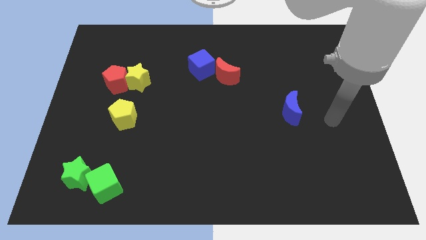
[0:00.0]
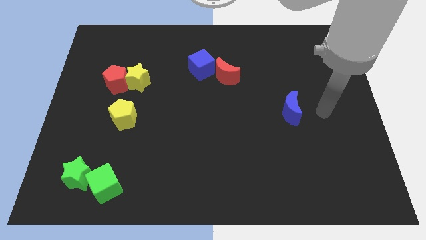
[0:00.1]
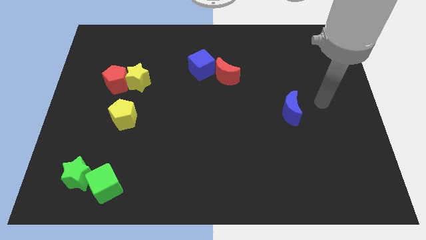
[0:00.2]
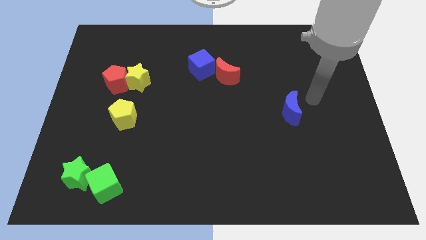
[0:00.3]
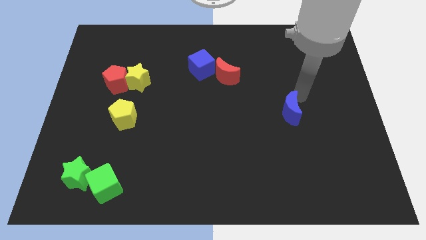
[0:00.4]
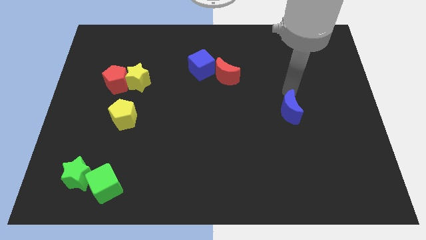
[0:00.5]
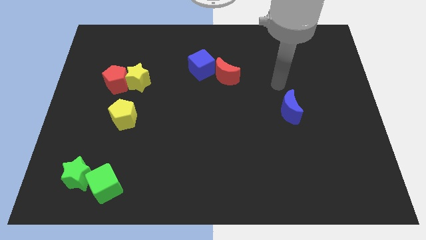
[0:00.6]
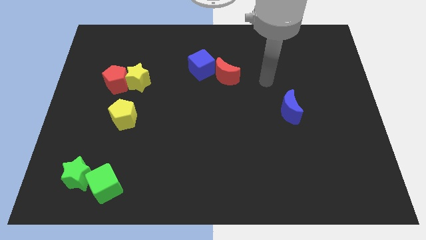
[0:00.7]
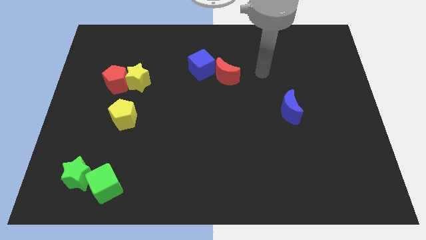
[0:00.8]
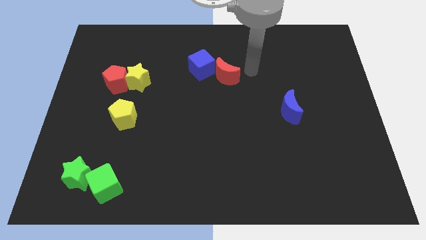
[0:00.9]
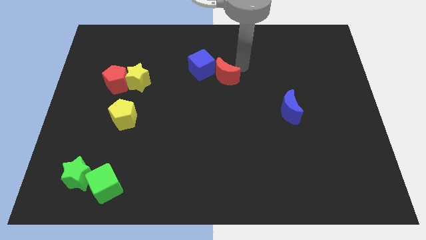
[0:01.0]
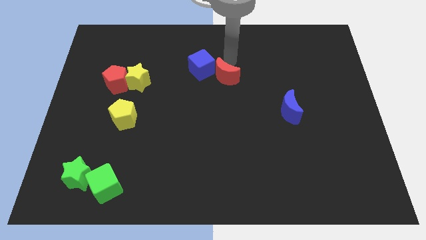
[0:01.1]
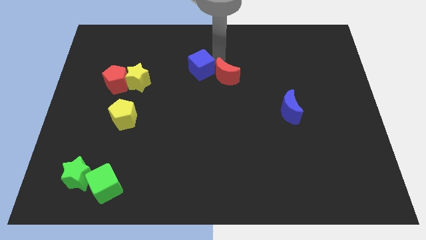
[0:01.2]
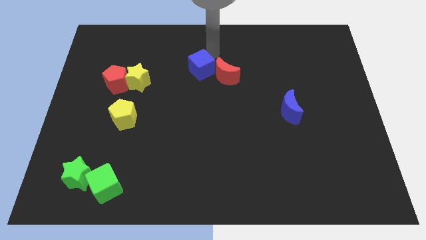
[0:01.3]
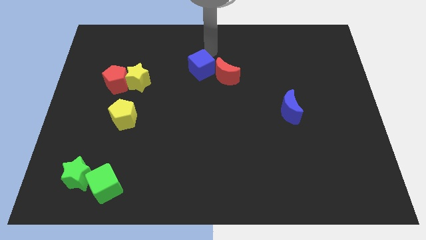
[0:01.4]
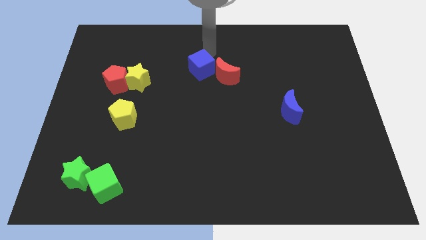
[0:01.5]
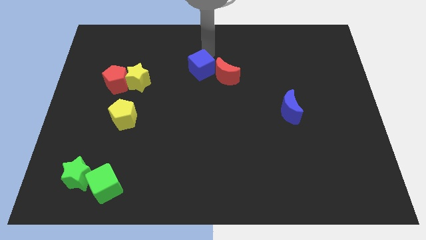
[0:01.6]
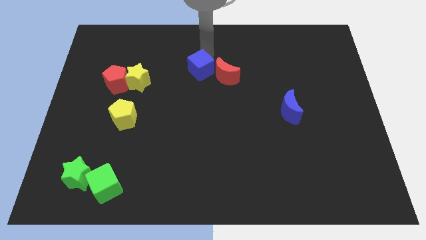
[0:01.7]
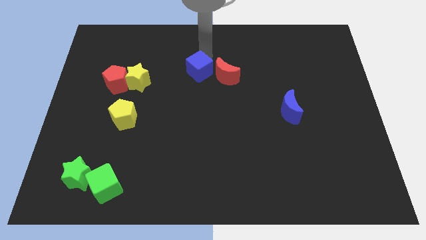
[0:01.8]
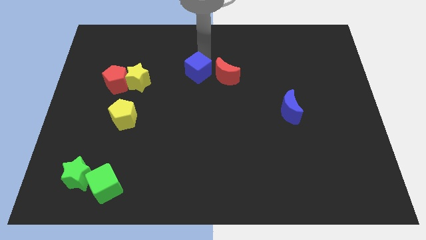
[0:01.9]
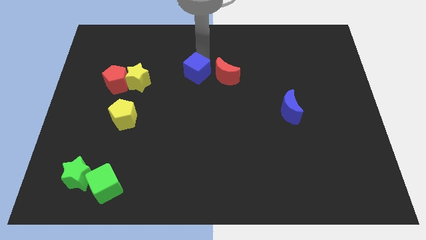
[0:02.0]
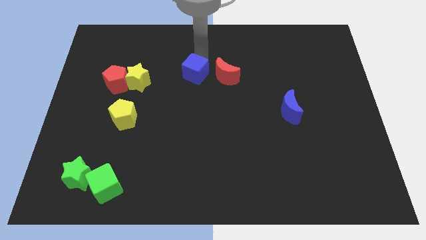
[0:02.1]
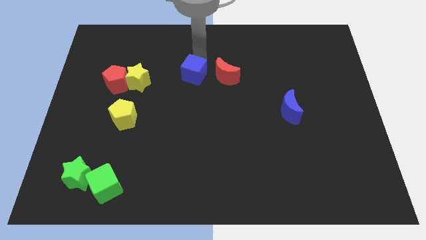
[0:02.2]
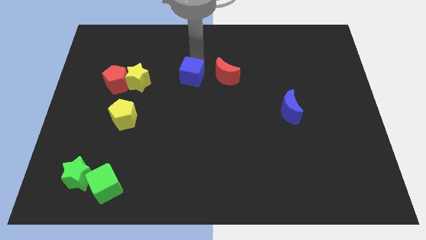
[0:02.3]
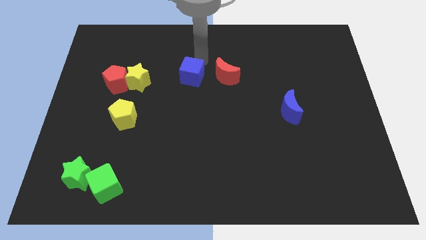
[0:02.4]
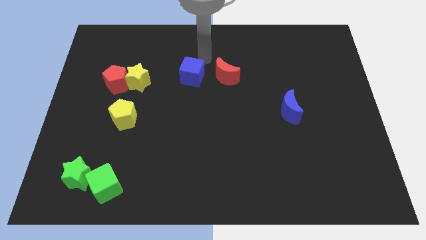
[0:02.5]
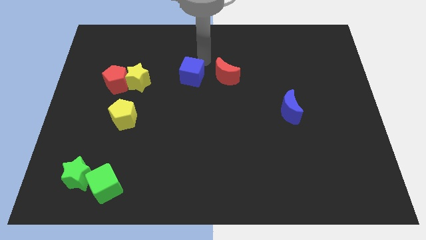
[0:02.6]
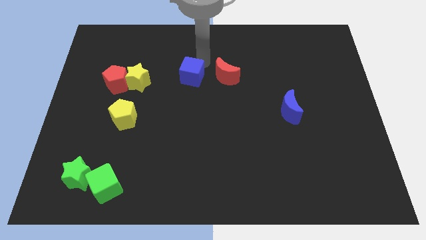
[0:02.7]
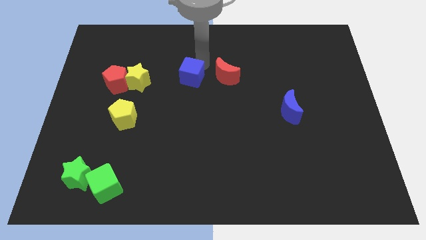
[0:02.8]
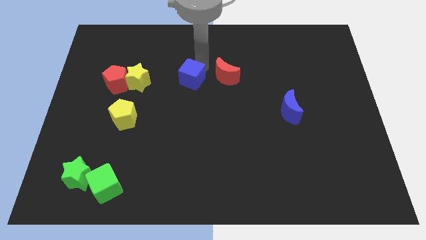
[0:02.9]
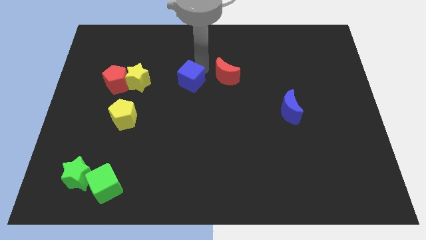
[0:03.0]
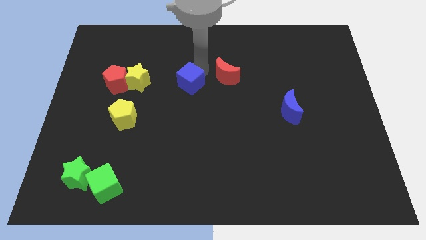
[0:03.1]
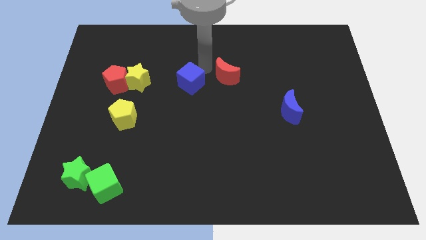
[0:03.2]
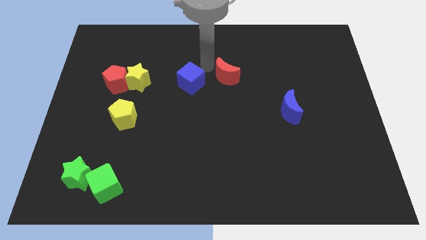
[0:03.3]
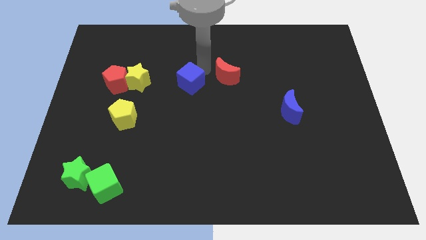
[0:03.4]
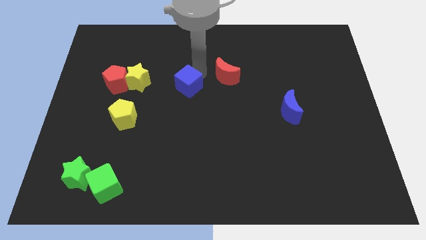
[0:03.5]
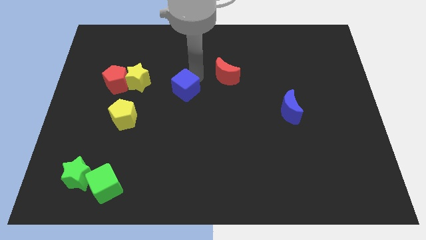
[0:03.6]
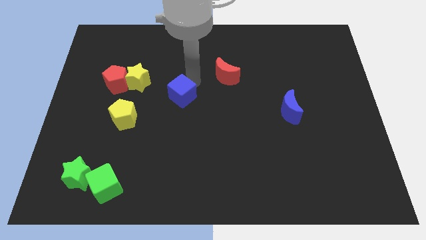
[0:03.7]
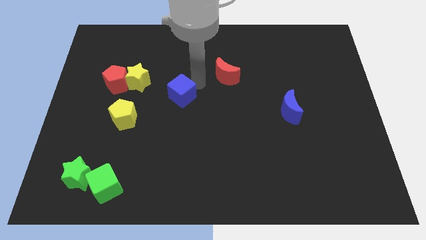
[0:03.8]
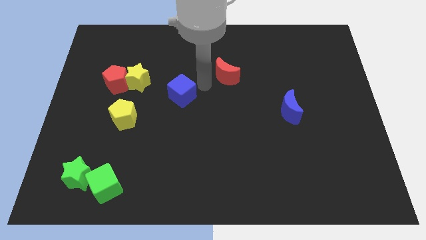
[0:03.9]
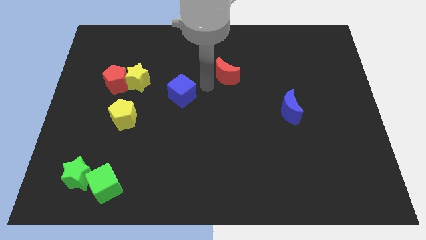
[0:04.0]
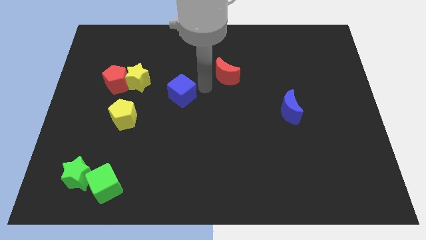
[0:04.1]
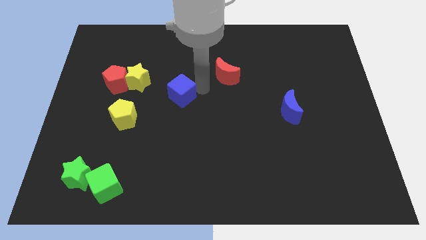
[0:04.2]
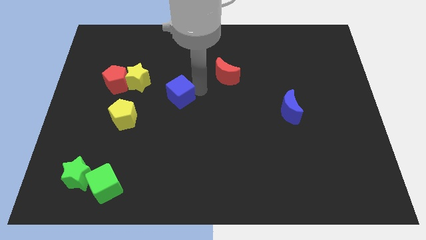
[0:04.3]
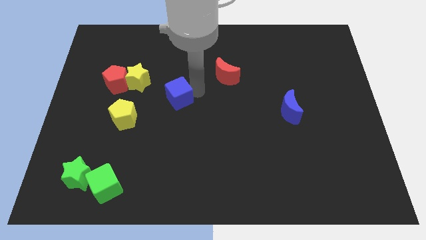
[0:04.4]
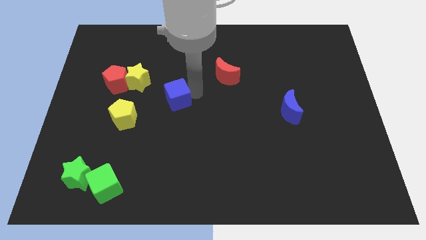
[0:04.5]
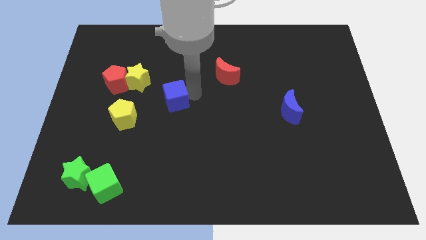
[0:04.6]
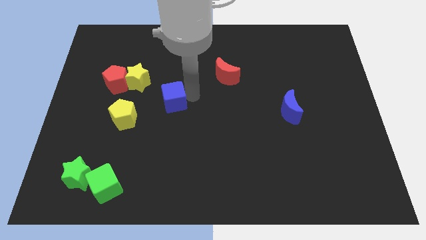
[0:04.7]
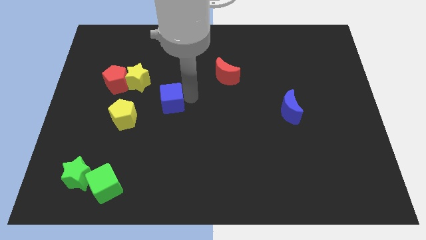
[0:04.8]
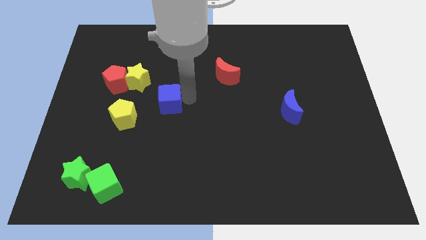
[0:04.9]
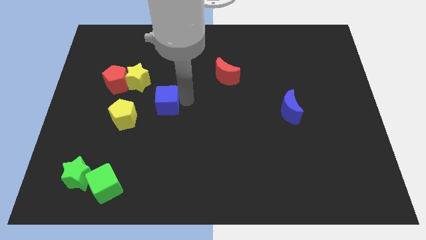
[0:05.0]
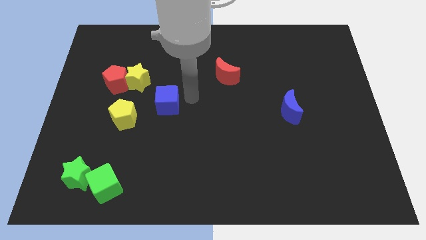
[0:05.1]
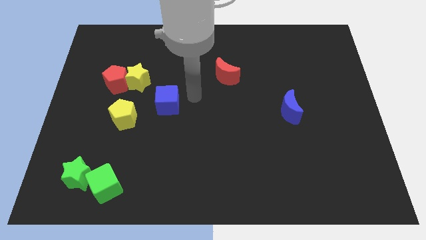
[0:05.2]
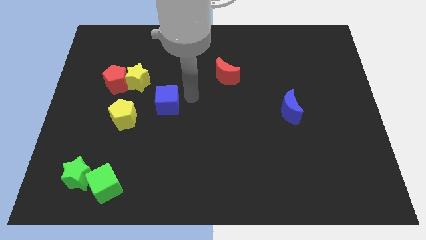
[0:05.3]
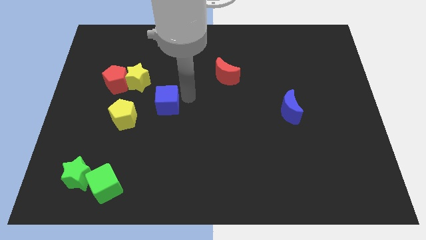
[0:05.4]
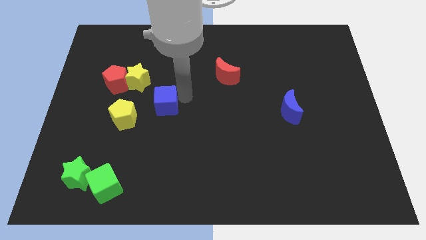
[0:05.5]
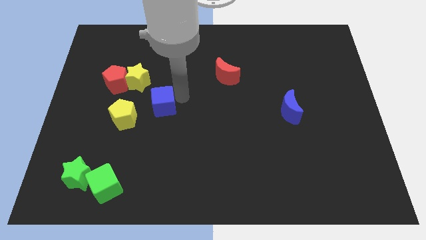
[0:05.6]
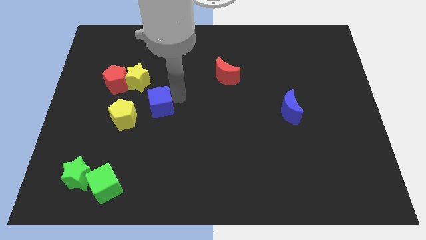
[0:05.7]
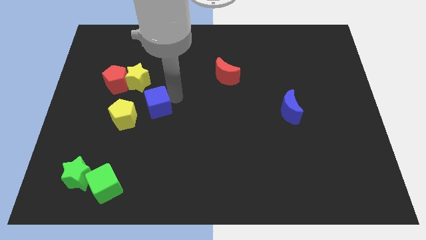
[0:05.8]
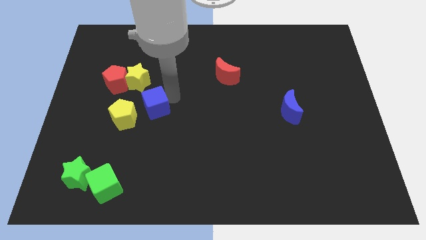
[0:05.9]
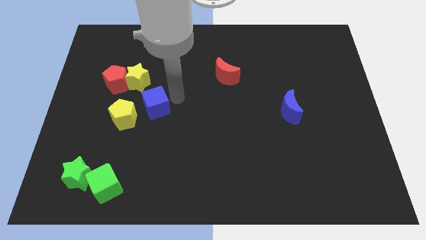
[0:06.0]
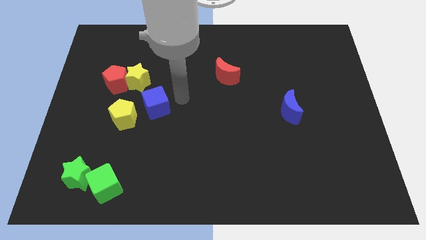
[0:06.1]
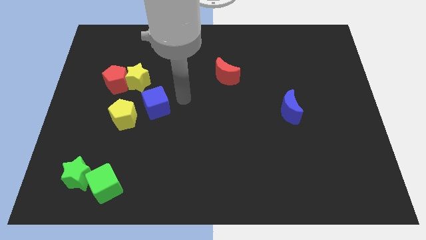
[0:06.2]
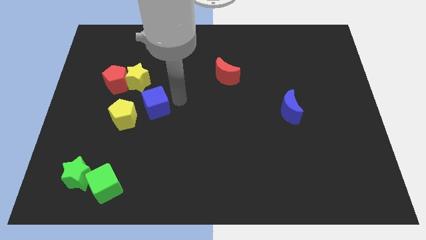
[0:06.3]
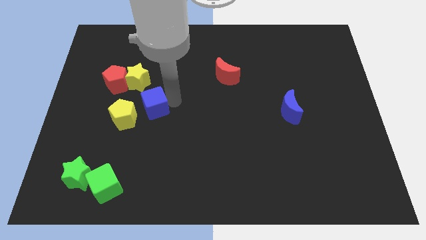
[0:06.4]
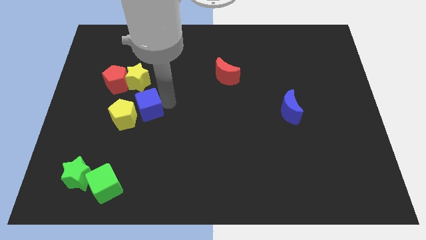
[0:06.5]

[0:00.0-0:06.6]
move the blue cube next to the yellow pentagon

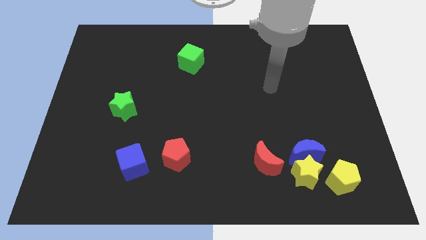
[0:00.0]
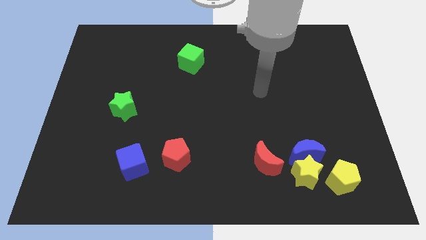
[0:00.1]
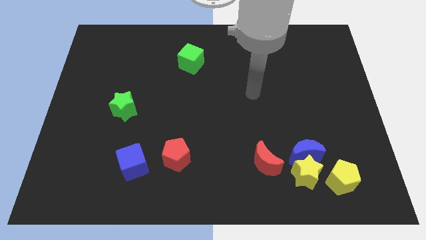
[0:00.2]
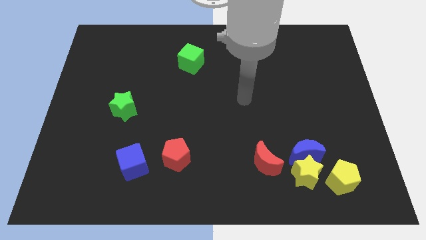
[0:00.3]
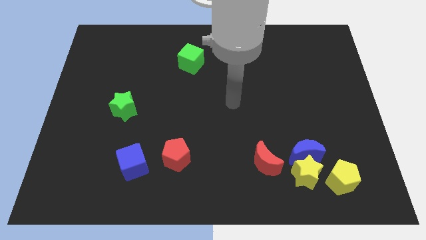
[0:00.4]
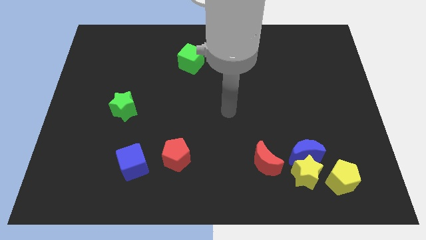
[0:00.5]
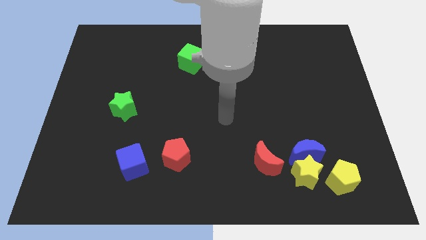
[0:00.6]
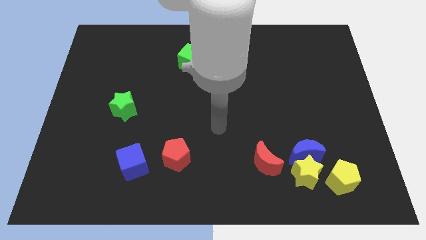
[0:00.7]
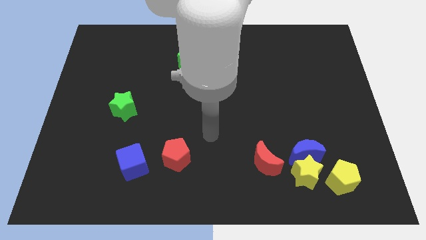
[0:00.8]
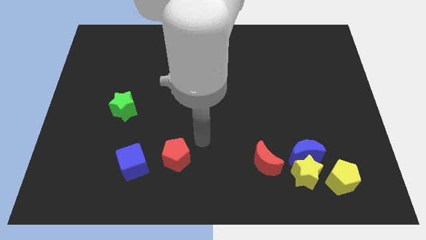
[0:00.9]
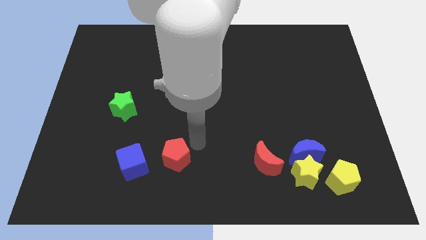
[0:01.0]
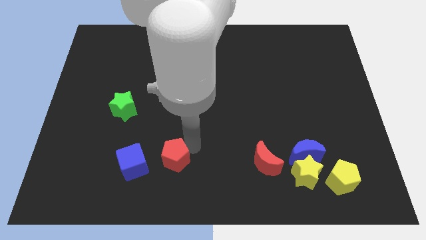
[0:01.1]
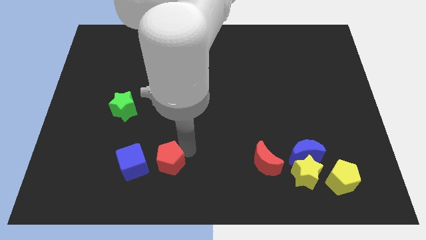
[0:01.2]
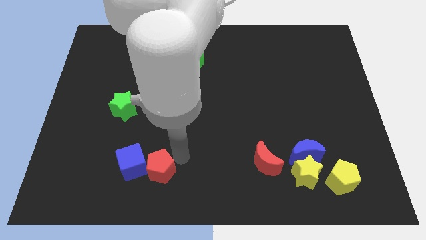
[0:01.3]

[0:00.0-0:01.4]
move the red pentagon to the blue cube

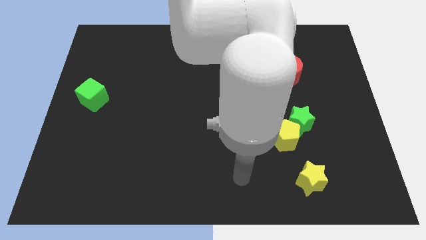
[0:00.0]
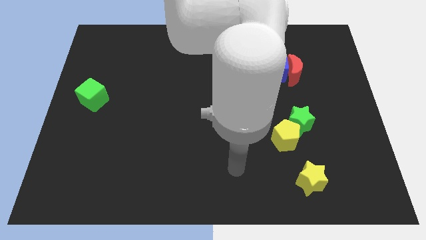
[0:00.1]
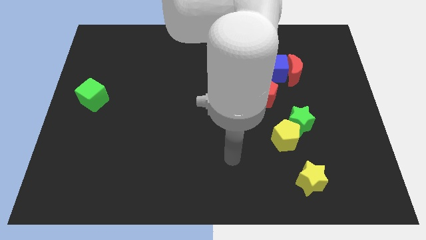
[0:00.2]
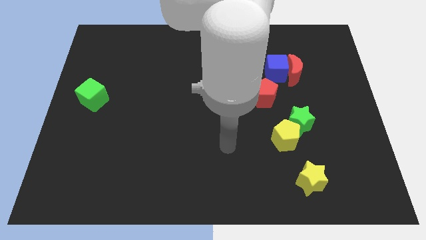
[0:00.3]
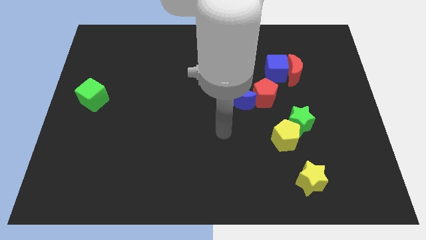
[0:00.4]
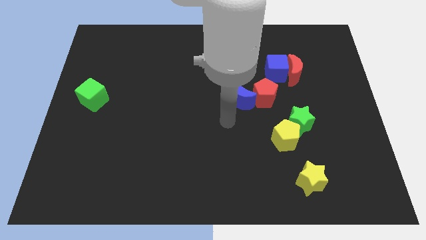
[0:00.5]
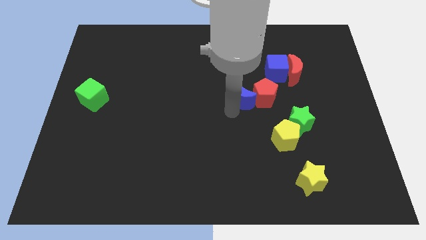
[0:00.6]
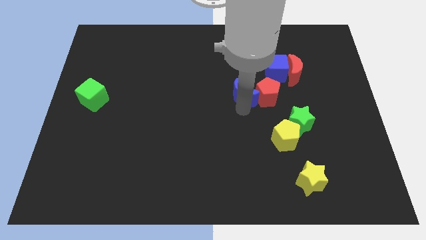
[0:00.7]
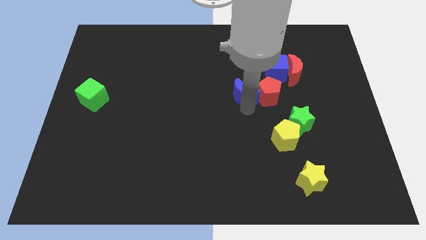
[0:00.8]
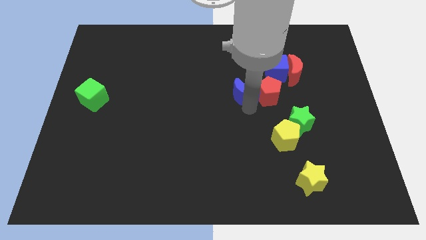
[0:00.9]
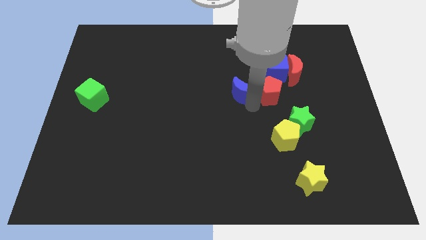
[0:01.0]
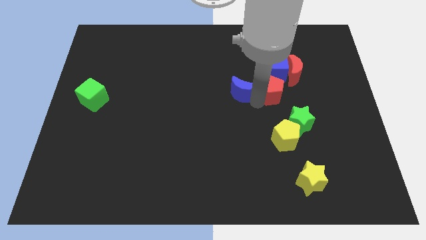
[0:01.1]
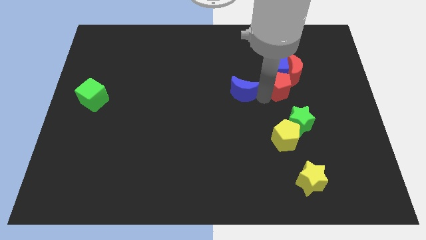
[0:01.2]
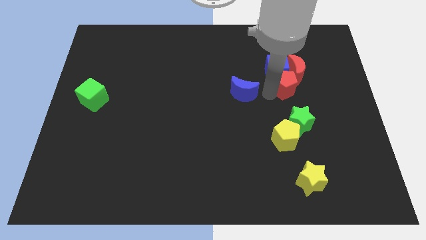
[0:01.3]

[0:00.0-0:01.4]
put the red pentagon towards the red moon
